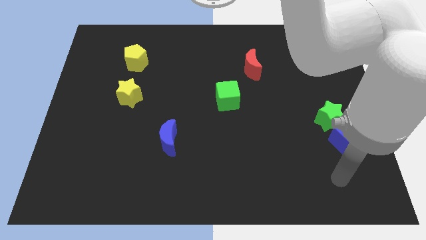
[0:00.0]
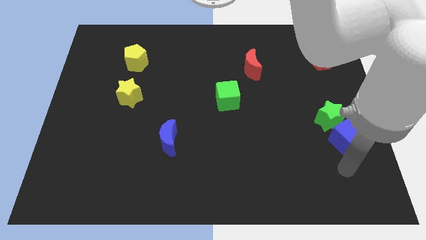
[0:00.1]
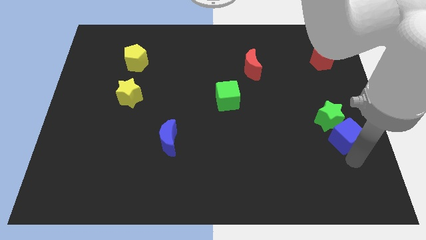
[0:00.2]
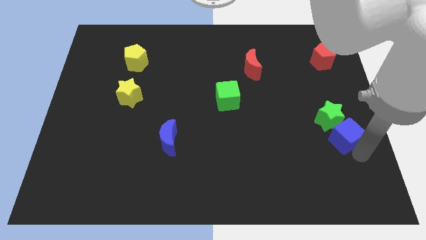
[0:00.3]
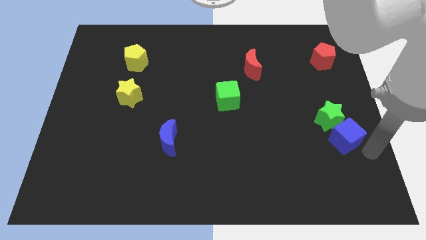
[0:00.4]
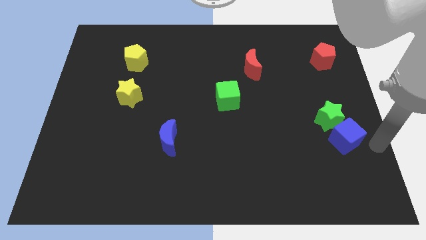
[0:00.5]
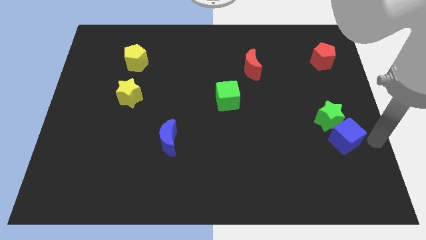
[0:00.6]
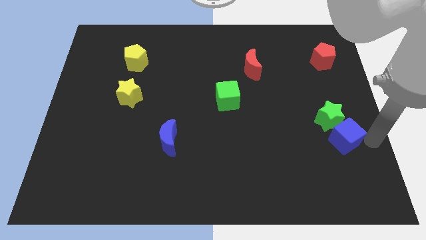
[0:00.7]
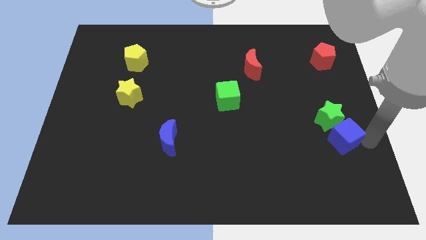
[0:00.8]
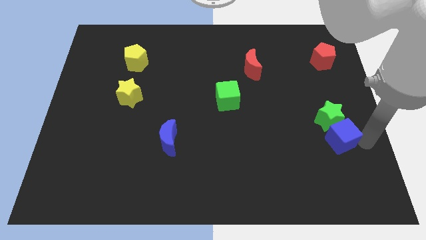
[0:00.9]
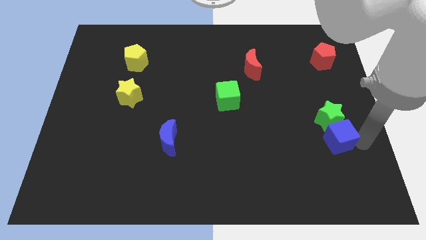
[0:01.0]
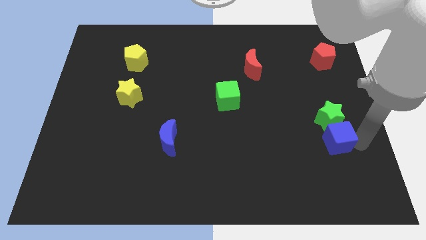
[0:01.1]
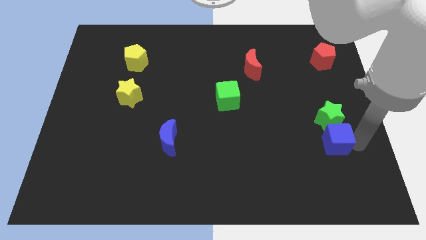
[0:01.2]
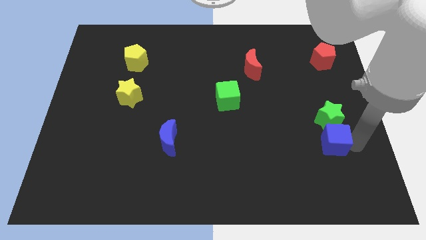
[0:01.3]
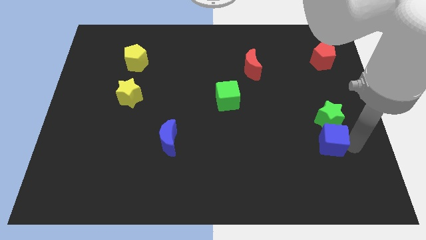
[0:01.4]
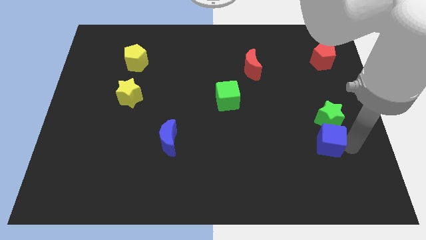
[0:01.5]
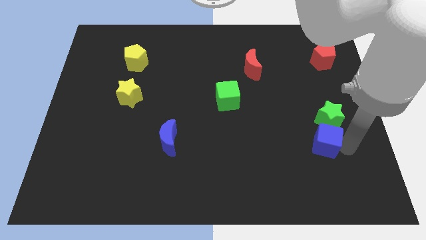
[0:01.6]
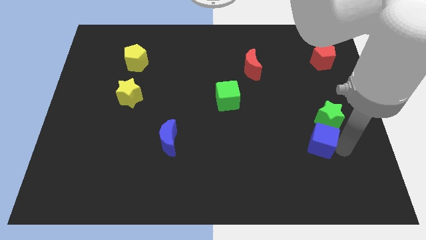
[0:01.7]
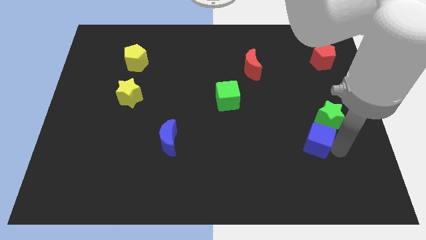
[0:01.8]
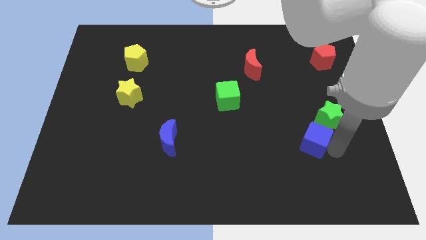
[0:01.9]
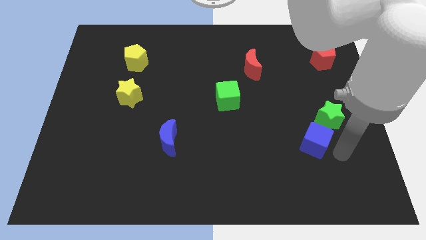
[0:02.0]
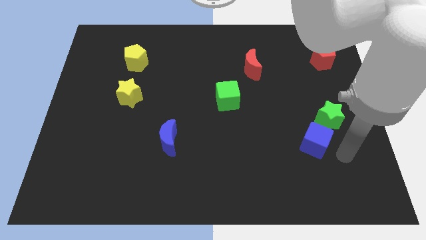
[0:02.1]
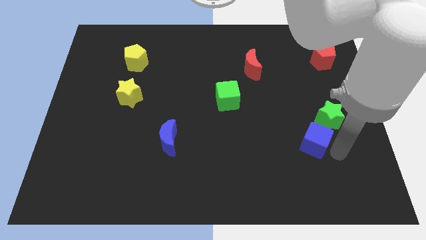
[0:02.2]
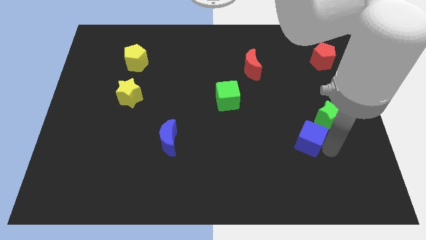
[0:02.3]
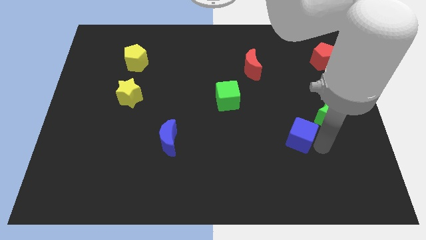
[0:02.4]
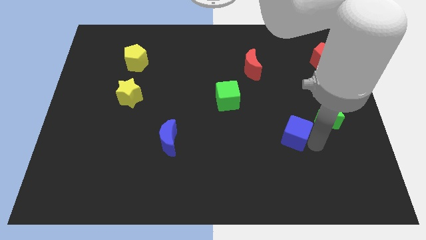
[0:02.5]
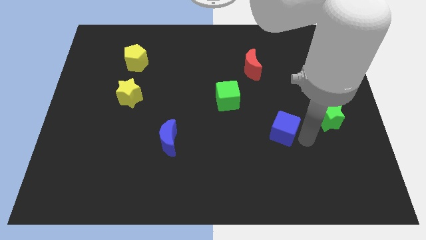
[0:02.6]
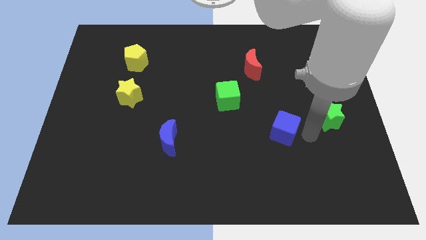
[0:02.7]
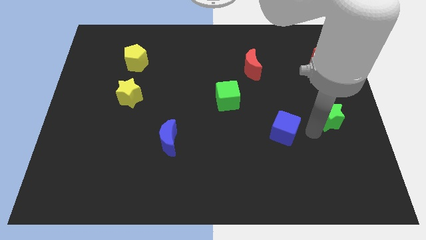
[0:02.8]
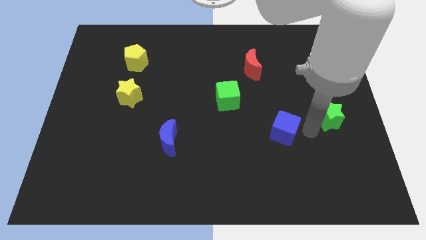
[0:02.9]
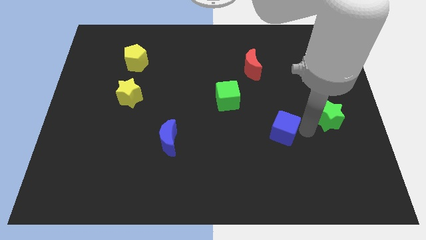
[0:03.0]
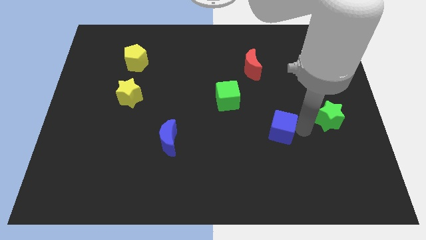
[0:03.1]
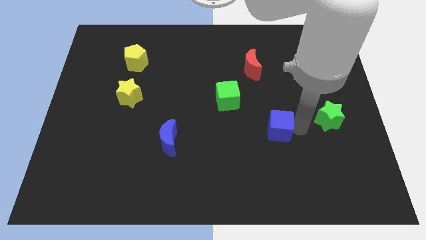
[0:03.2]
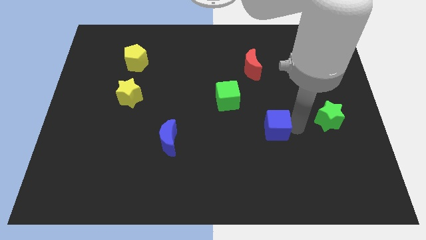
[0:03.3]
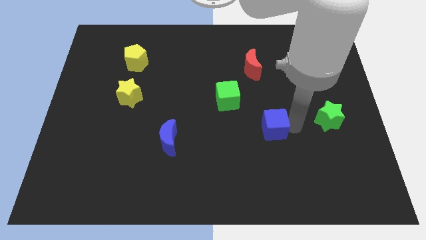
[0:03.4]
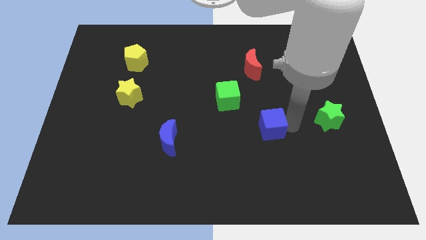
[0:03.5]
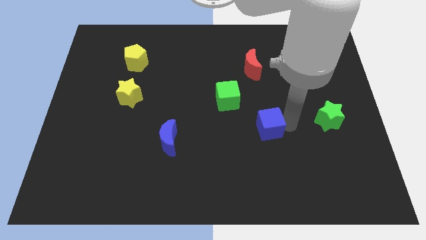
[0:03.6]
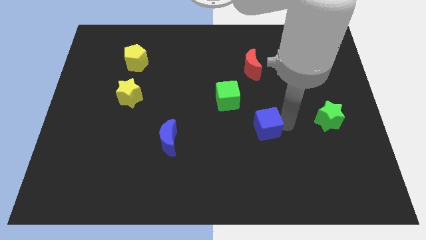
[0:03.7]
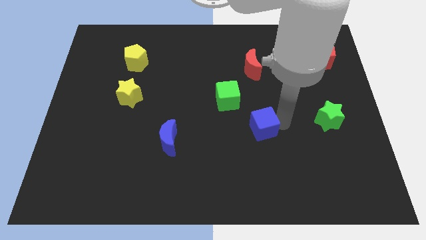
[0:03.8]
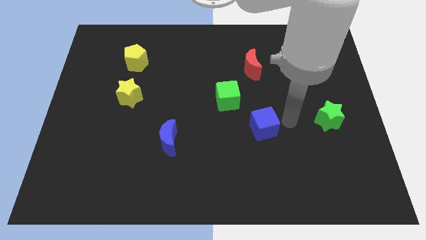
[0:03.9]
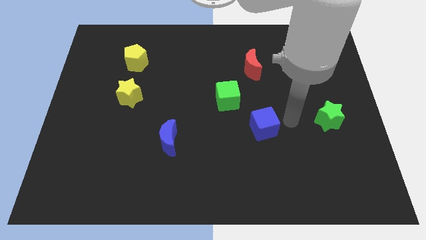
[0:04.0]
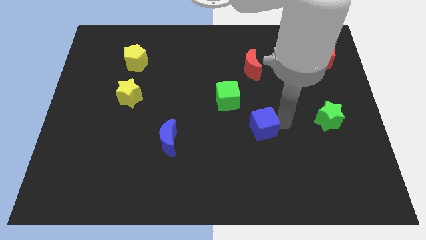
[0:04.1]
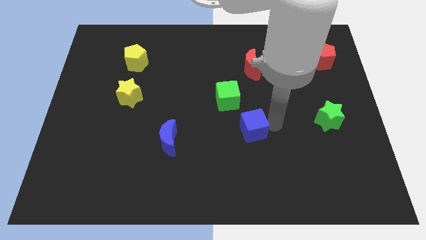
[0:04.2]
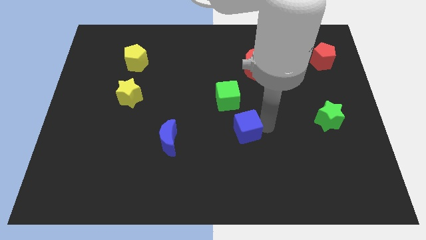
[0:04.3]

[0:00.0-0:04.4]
move the blue cube to the bottom side of the green cube

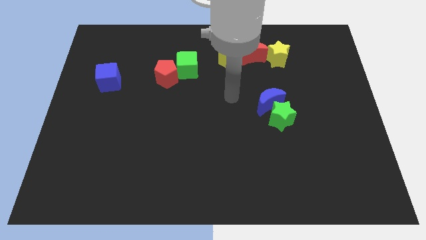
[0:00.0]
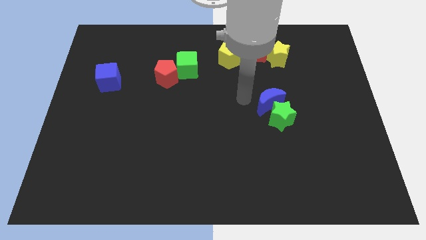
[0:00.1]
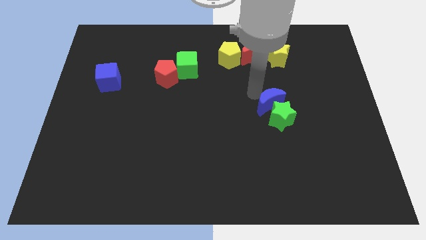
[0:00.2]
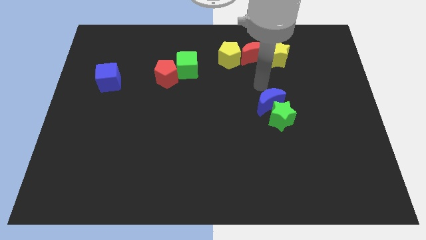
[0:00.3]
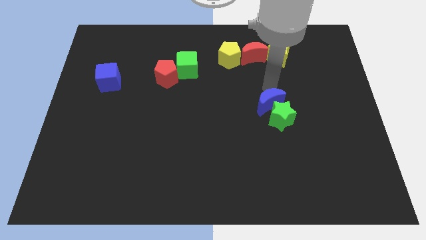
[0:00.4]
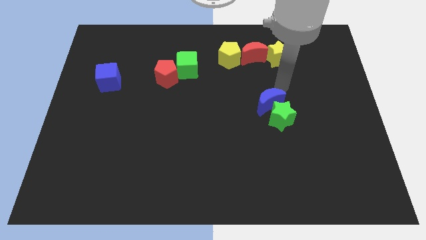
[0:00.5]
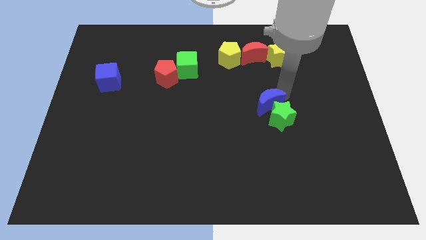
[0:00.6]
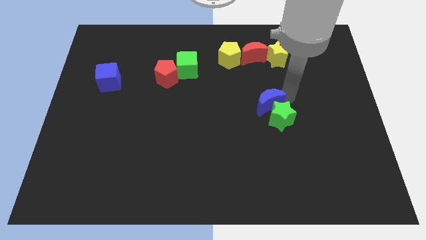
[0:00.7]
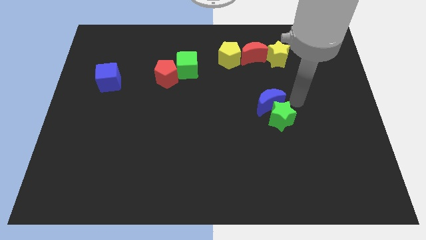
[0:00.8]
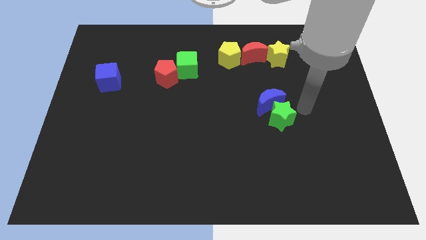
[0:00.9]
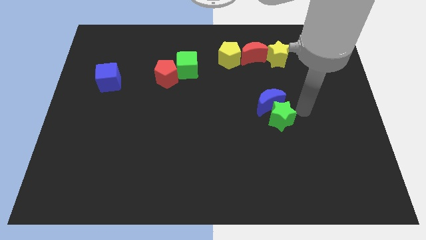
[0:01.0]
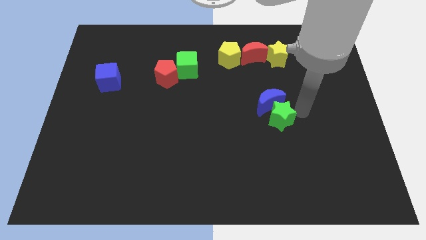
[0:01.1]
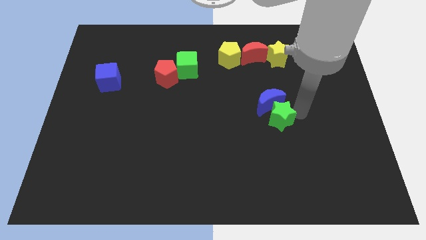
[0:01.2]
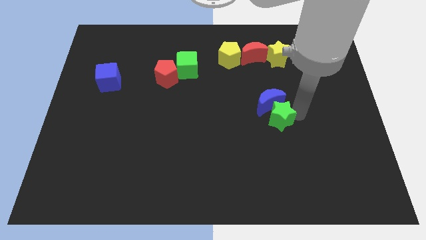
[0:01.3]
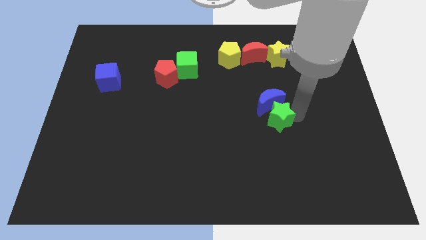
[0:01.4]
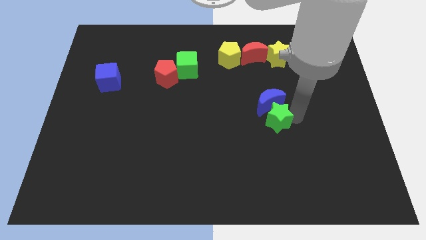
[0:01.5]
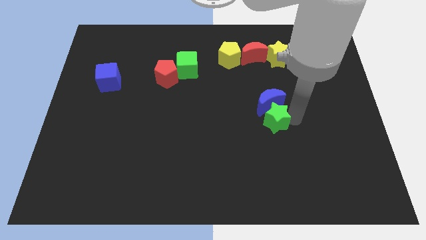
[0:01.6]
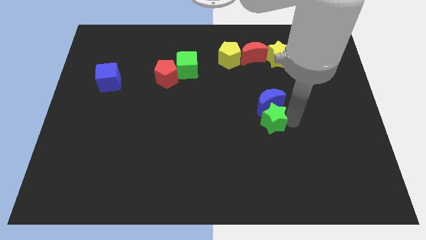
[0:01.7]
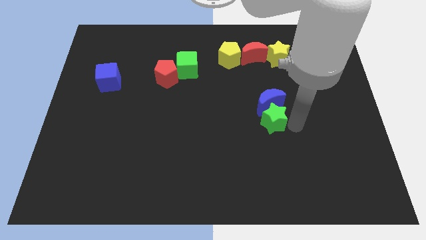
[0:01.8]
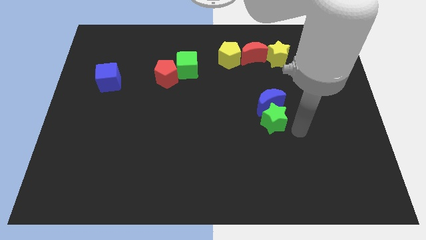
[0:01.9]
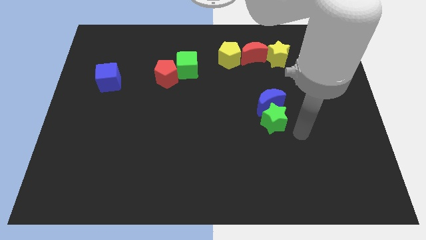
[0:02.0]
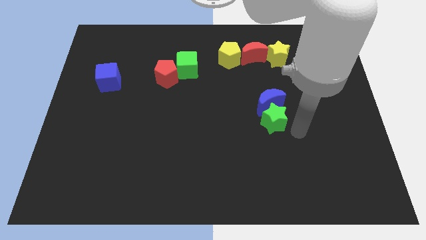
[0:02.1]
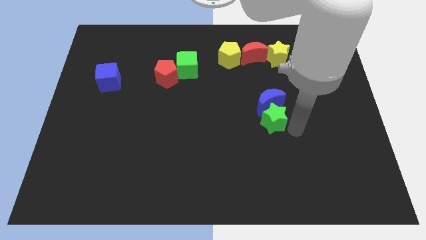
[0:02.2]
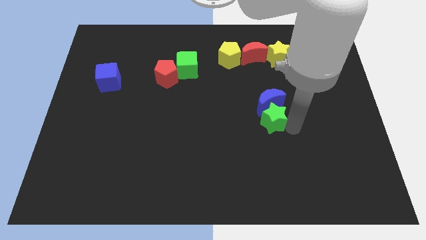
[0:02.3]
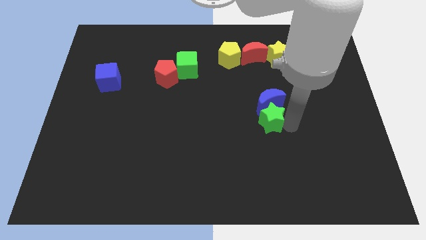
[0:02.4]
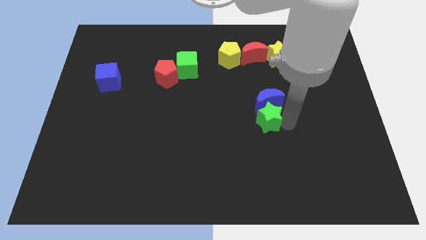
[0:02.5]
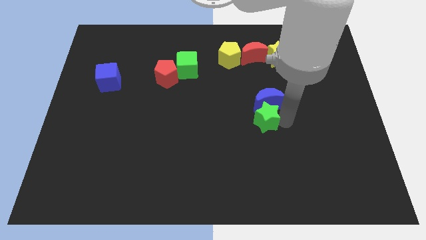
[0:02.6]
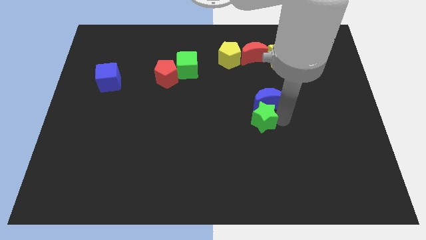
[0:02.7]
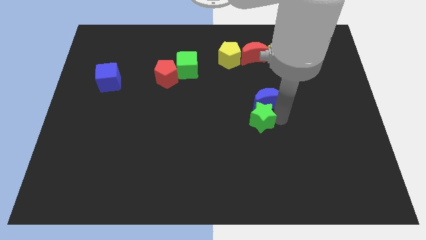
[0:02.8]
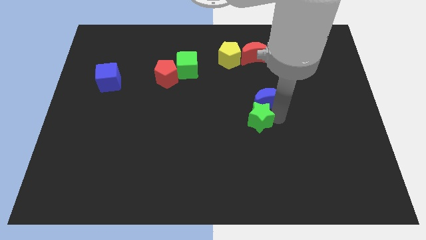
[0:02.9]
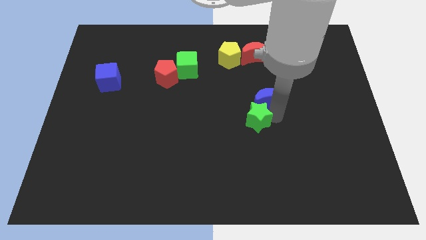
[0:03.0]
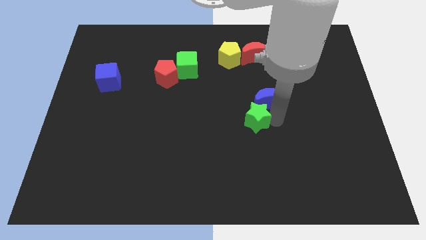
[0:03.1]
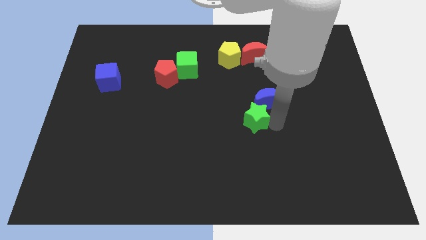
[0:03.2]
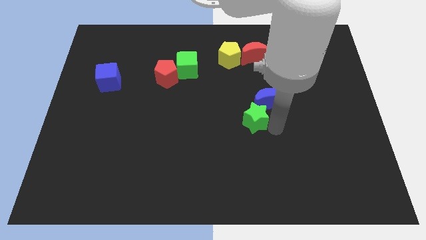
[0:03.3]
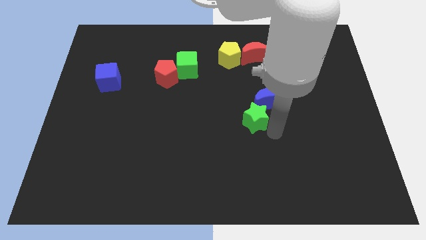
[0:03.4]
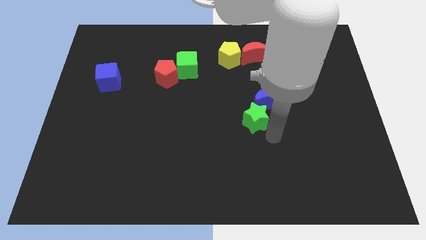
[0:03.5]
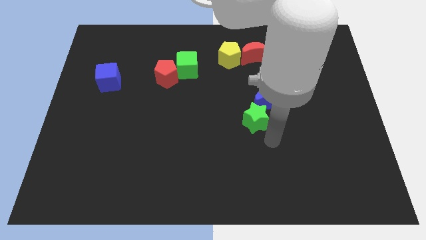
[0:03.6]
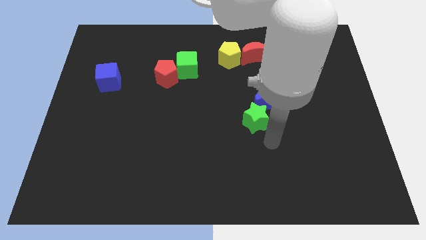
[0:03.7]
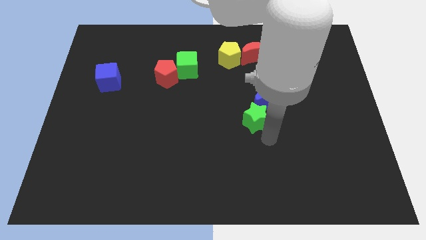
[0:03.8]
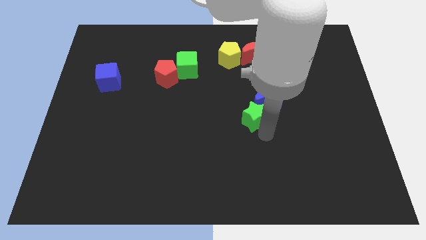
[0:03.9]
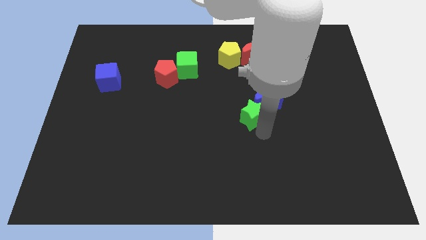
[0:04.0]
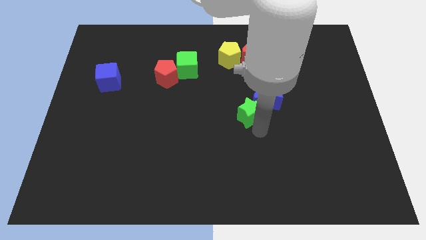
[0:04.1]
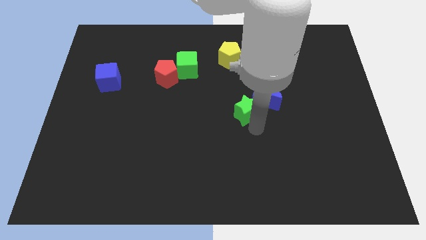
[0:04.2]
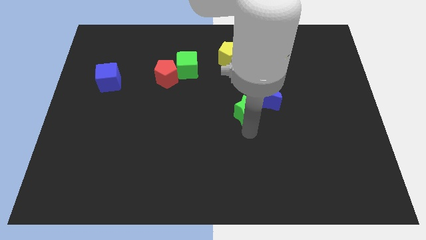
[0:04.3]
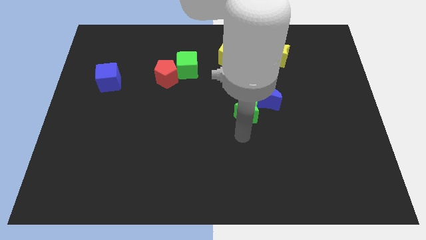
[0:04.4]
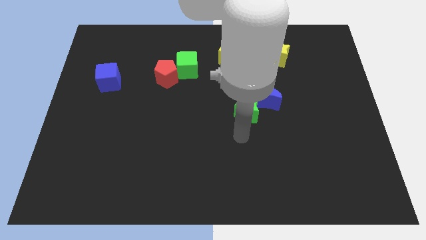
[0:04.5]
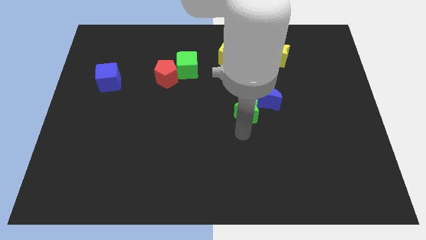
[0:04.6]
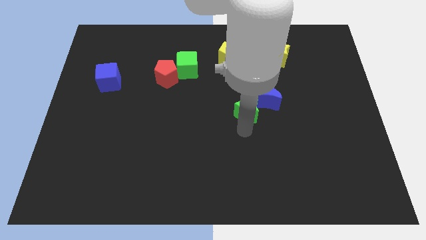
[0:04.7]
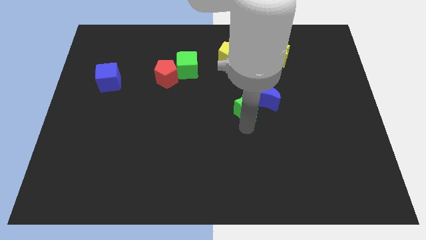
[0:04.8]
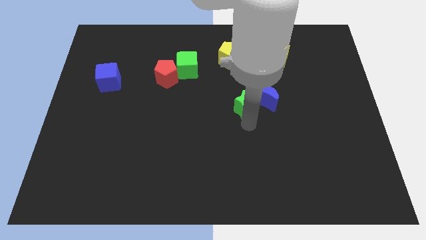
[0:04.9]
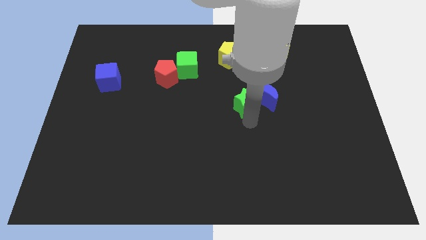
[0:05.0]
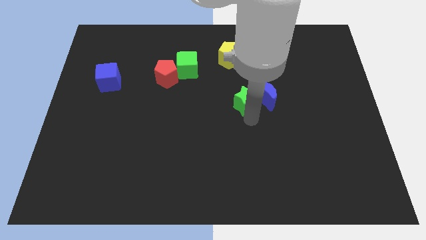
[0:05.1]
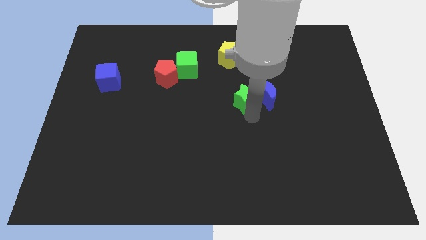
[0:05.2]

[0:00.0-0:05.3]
push the green star to the bottom side of the red moon
